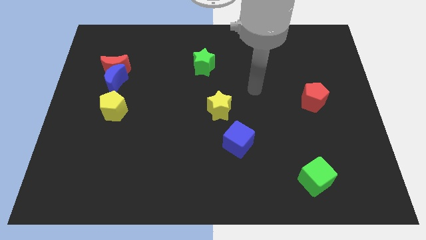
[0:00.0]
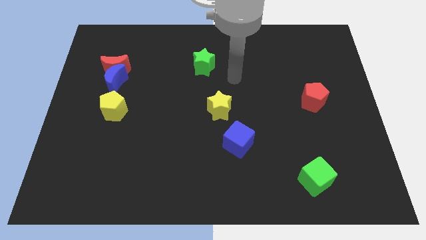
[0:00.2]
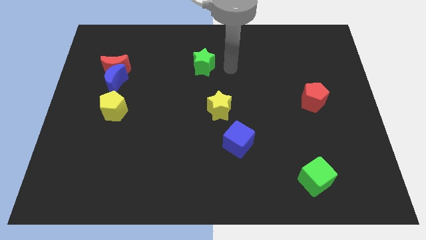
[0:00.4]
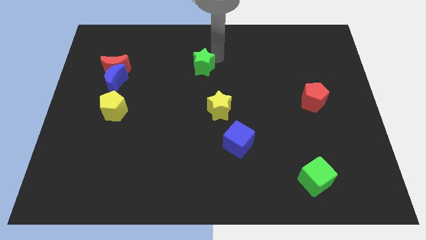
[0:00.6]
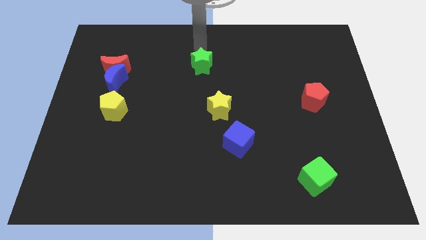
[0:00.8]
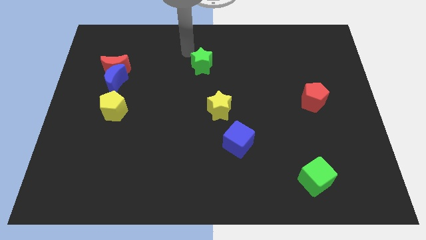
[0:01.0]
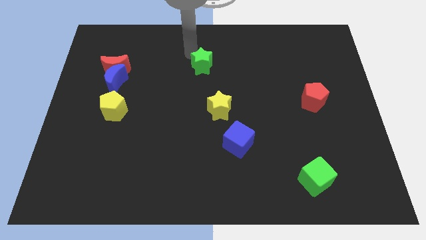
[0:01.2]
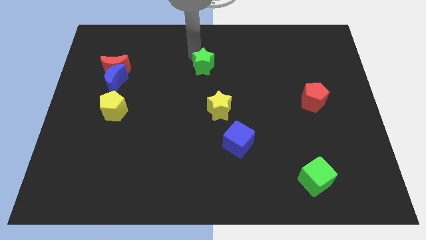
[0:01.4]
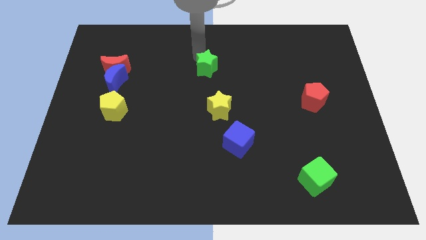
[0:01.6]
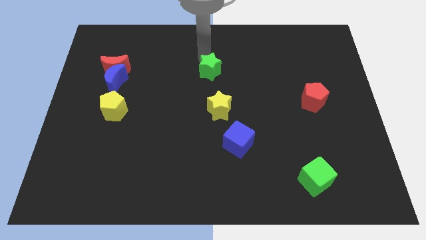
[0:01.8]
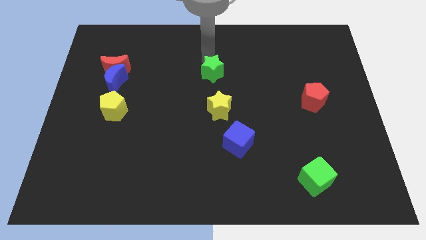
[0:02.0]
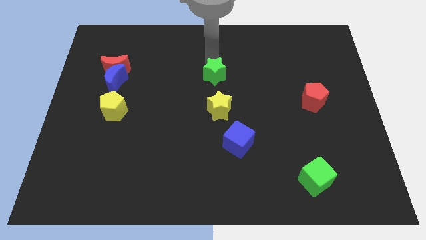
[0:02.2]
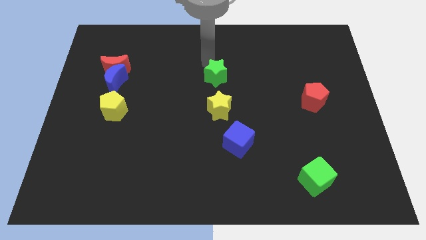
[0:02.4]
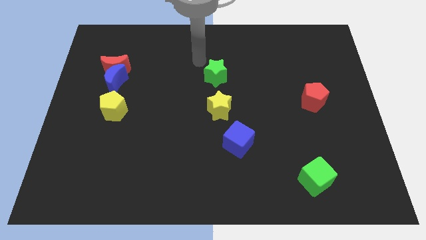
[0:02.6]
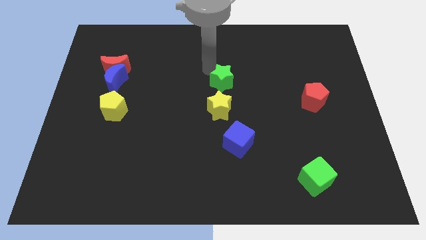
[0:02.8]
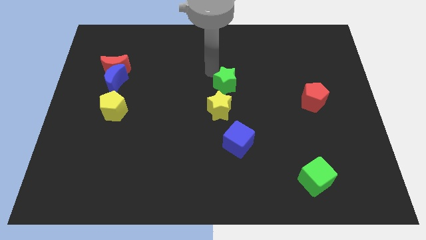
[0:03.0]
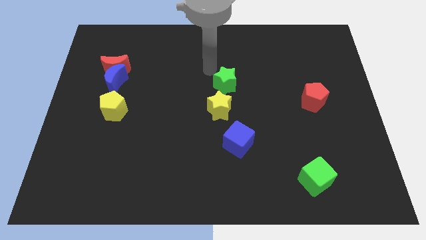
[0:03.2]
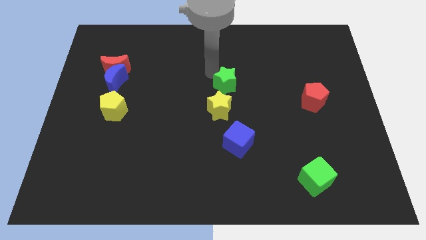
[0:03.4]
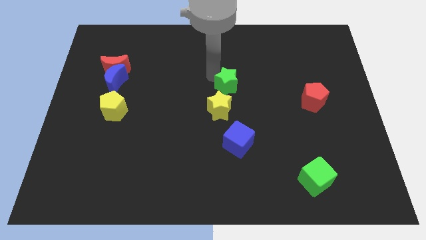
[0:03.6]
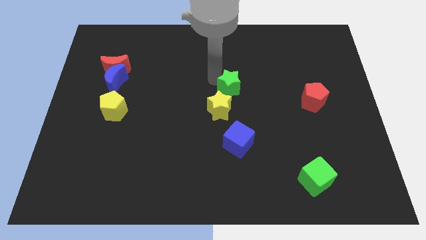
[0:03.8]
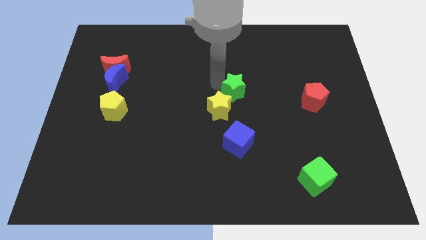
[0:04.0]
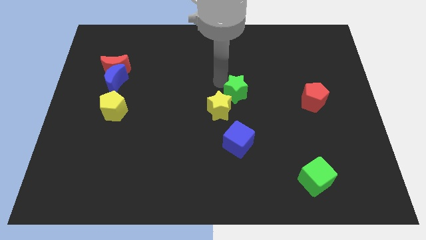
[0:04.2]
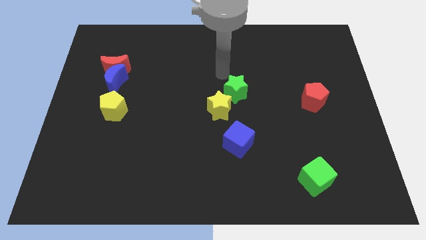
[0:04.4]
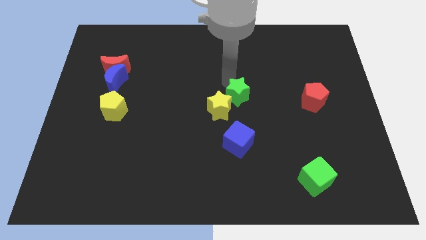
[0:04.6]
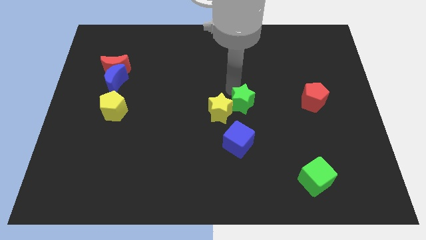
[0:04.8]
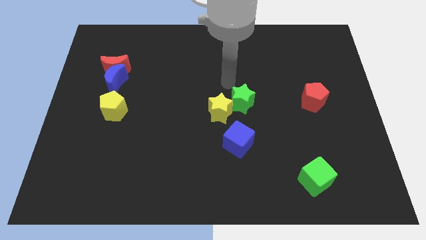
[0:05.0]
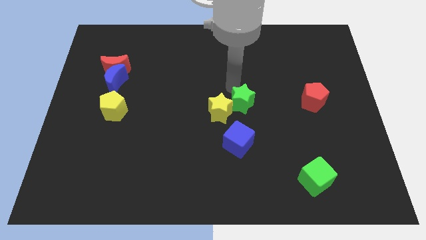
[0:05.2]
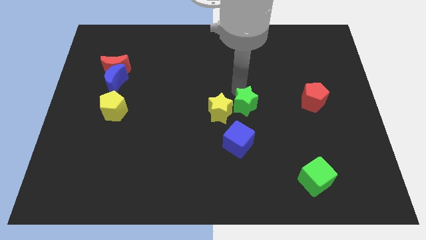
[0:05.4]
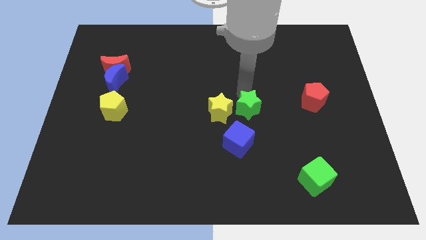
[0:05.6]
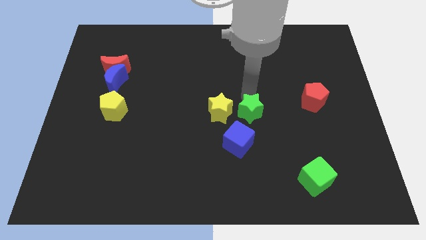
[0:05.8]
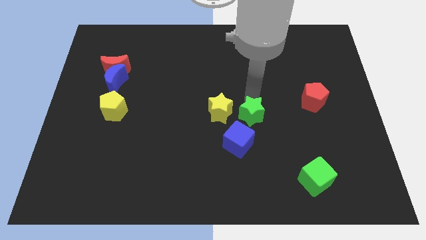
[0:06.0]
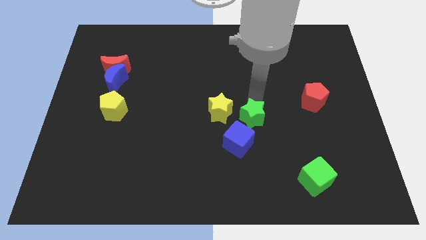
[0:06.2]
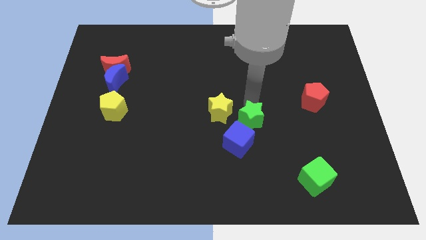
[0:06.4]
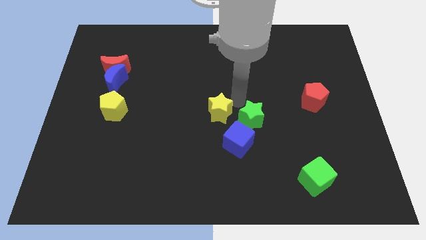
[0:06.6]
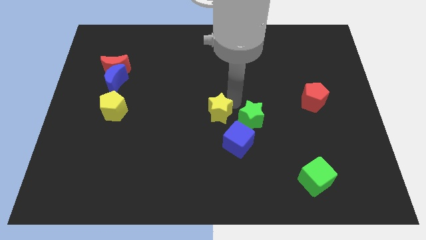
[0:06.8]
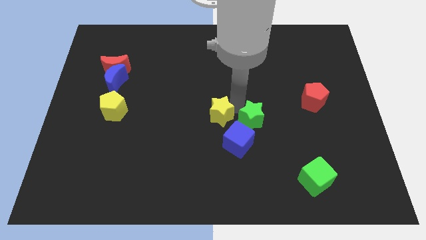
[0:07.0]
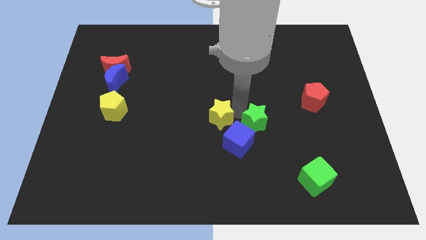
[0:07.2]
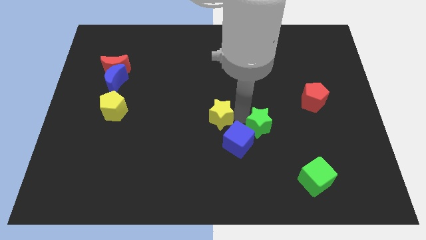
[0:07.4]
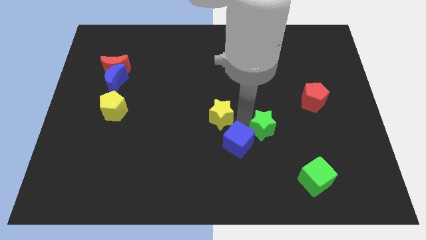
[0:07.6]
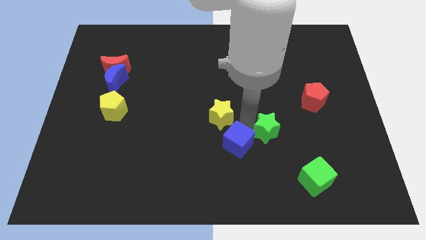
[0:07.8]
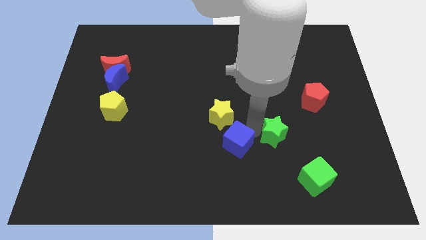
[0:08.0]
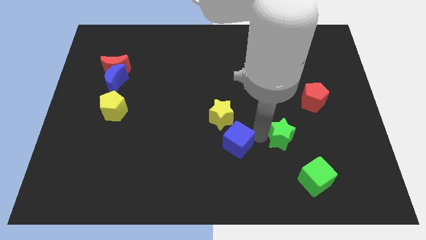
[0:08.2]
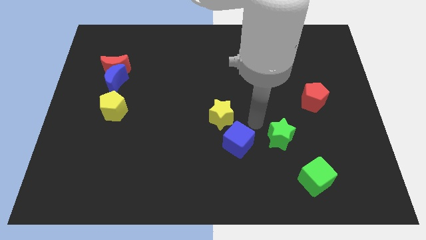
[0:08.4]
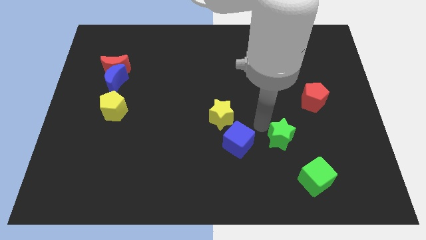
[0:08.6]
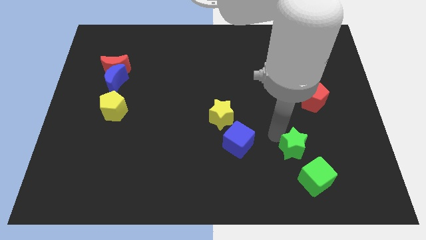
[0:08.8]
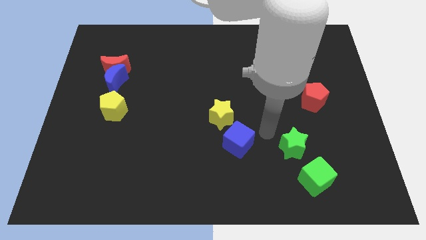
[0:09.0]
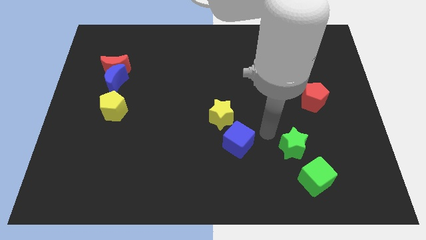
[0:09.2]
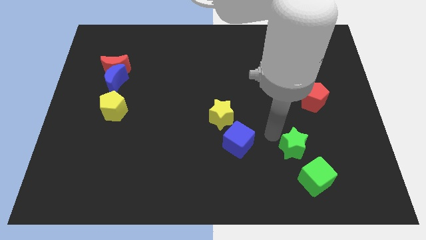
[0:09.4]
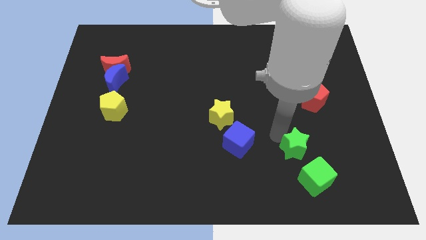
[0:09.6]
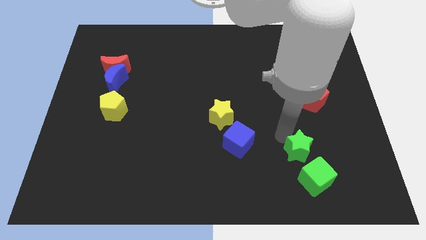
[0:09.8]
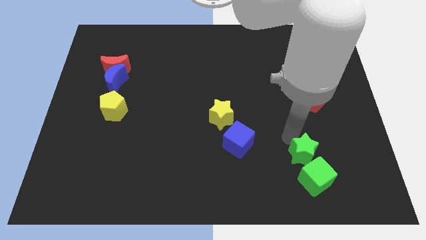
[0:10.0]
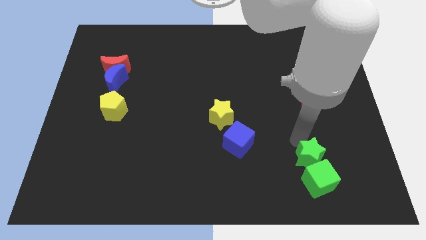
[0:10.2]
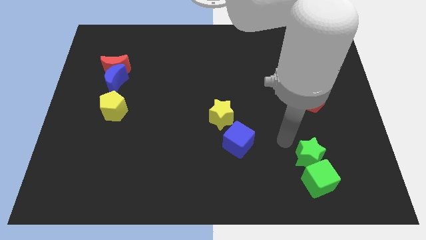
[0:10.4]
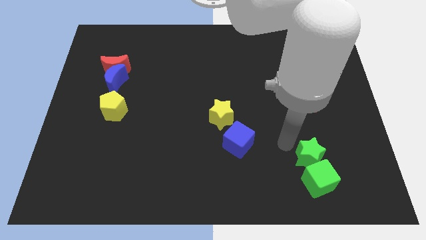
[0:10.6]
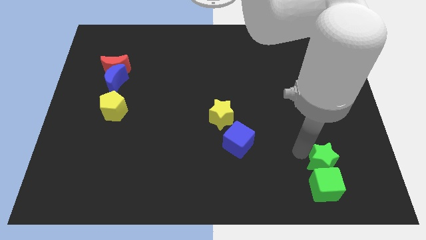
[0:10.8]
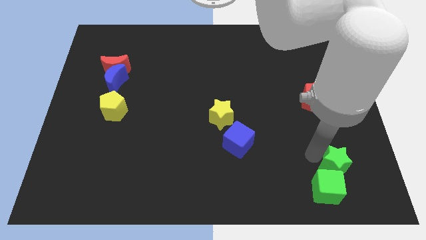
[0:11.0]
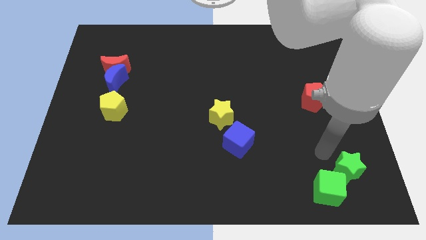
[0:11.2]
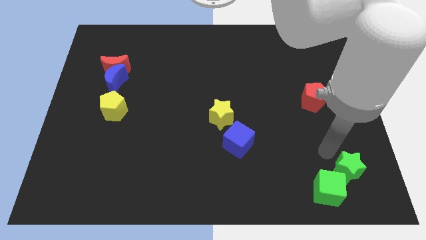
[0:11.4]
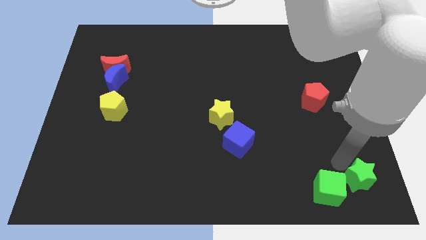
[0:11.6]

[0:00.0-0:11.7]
put the green star to the bottom right of the board

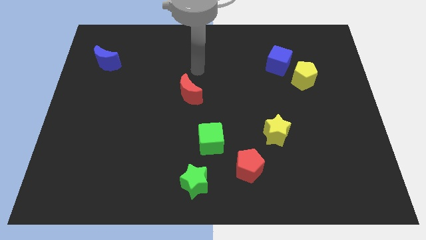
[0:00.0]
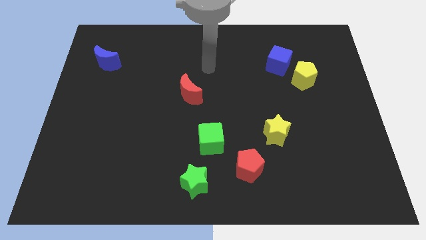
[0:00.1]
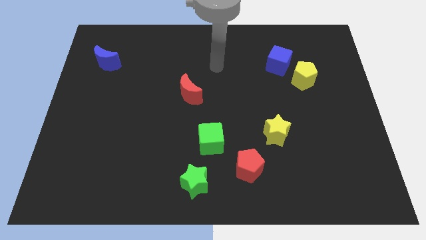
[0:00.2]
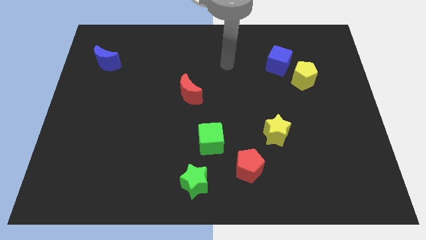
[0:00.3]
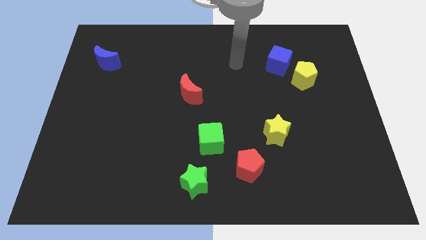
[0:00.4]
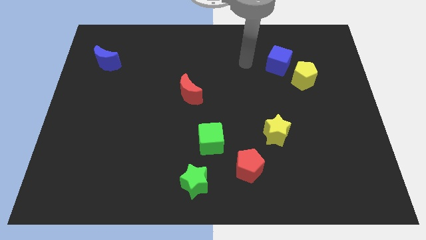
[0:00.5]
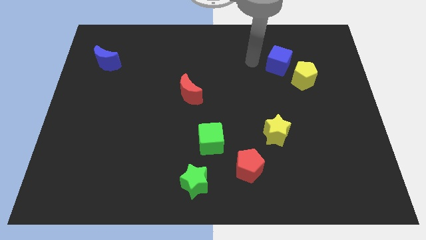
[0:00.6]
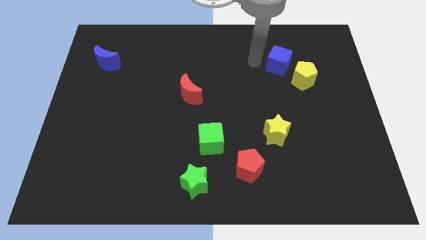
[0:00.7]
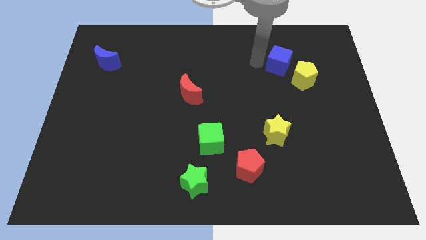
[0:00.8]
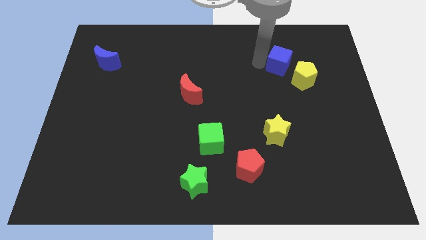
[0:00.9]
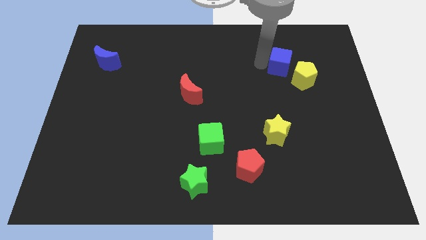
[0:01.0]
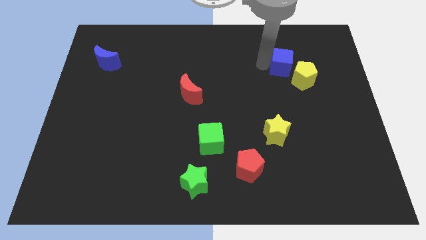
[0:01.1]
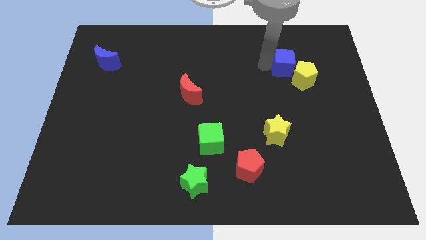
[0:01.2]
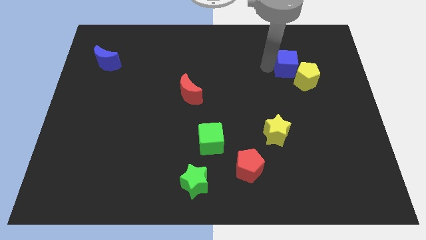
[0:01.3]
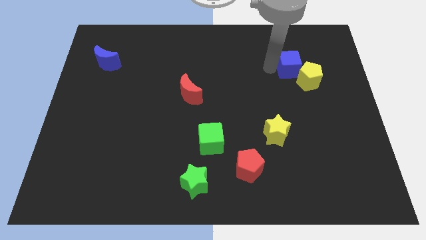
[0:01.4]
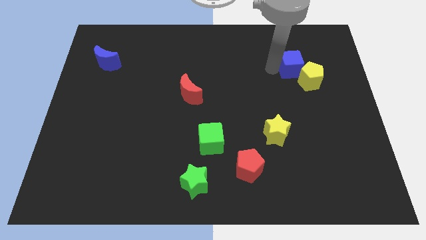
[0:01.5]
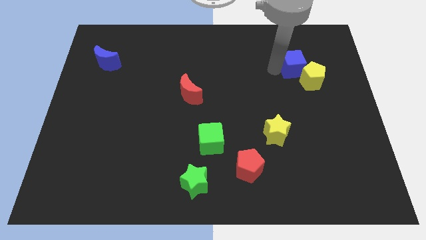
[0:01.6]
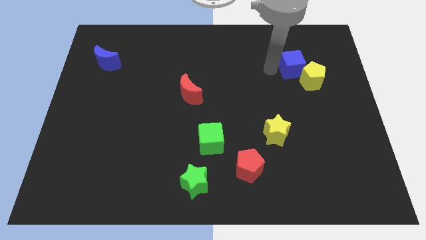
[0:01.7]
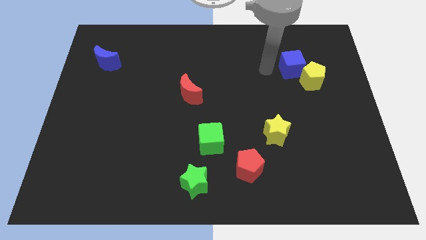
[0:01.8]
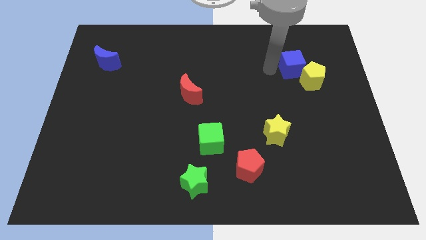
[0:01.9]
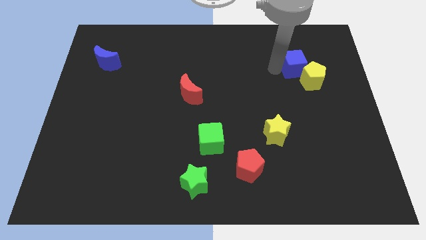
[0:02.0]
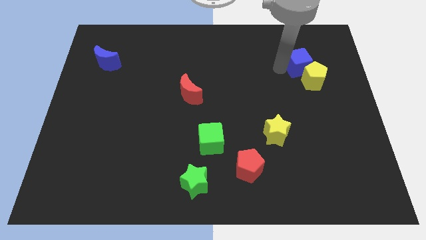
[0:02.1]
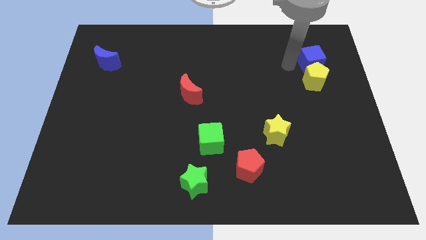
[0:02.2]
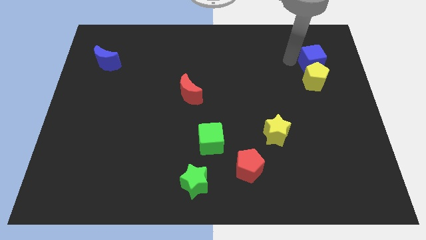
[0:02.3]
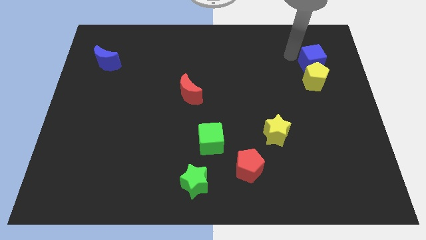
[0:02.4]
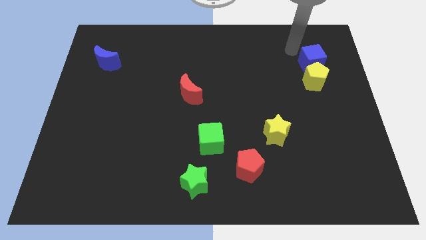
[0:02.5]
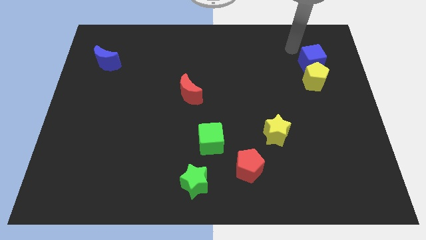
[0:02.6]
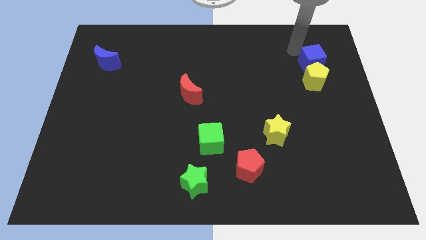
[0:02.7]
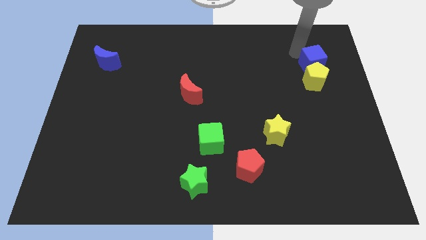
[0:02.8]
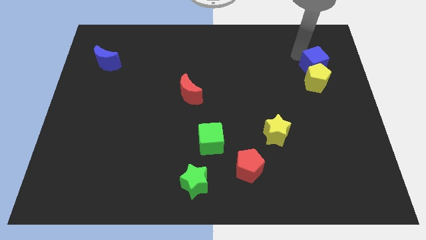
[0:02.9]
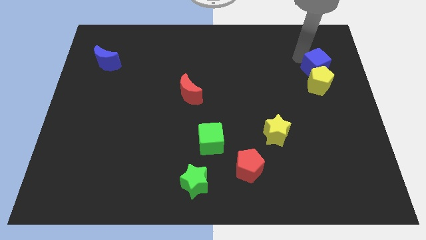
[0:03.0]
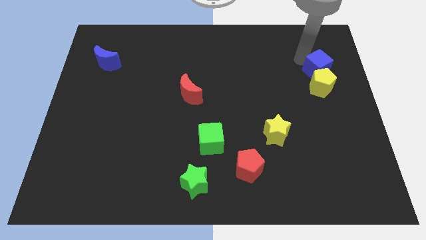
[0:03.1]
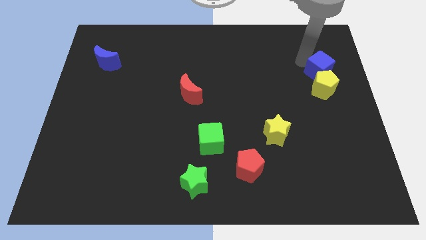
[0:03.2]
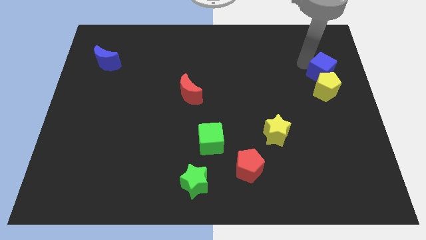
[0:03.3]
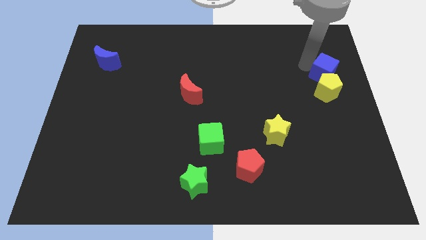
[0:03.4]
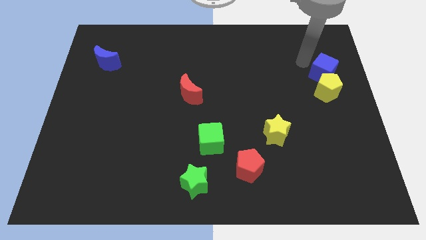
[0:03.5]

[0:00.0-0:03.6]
put the blue cube to the right side
